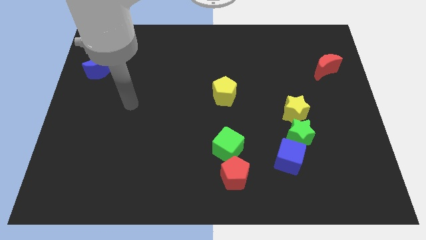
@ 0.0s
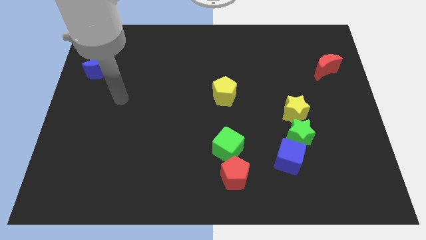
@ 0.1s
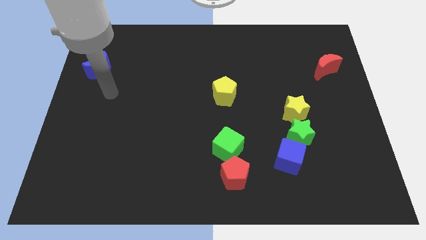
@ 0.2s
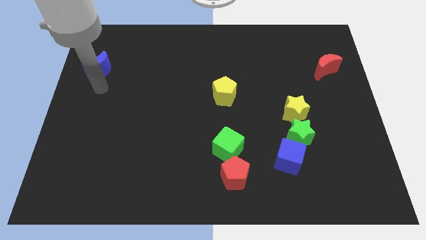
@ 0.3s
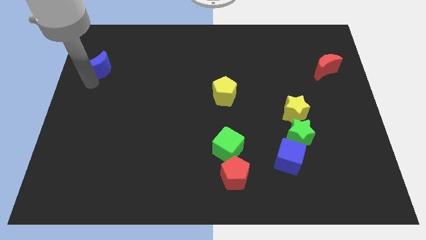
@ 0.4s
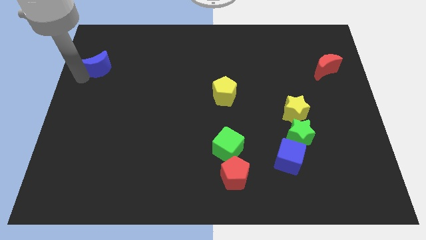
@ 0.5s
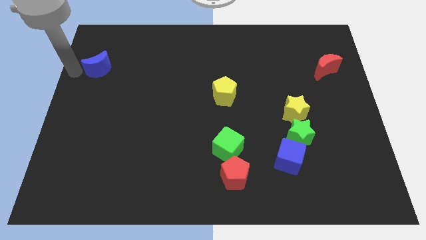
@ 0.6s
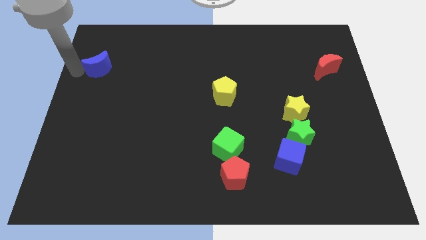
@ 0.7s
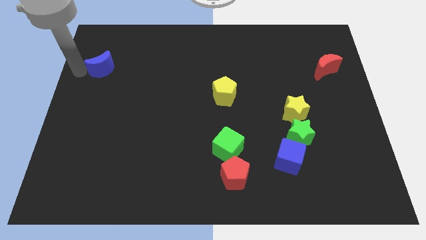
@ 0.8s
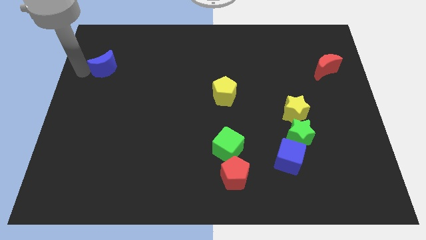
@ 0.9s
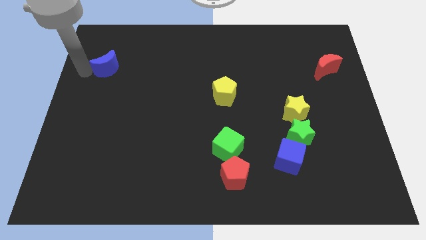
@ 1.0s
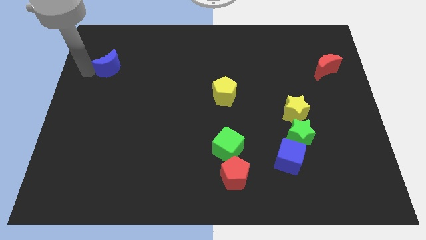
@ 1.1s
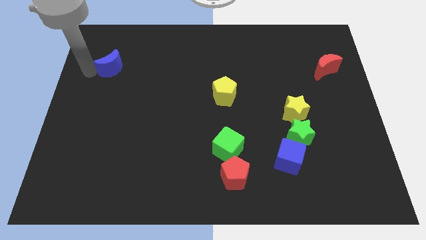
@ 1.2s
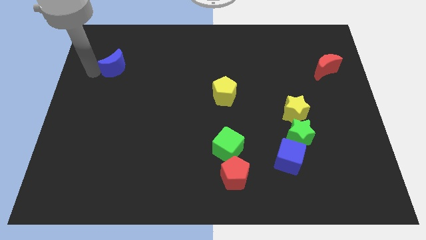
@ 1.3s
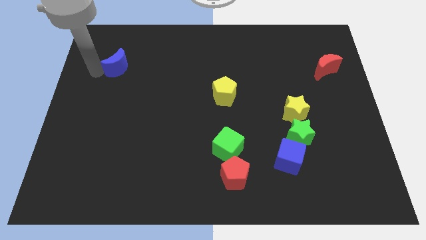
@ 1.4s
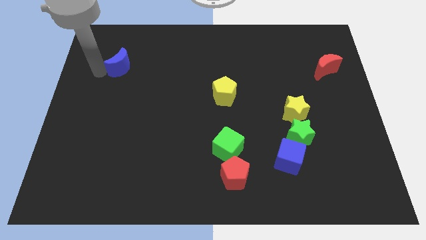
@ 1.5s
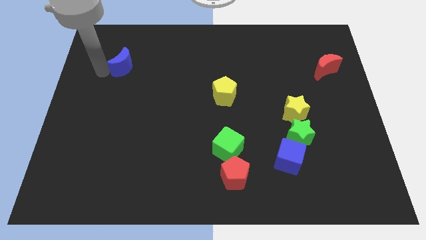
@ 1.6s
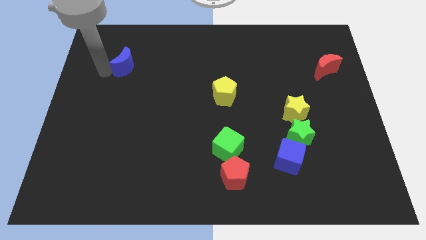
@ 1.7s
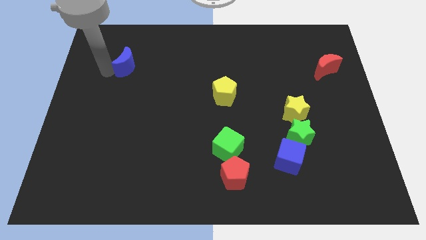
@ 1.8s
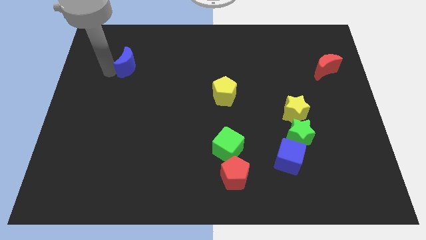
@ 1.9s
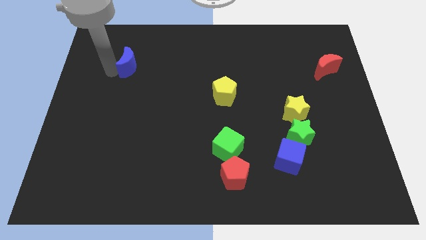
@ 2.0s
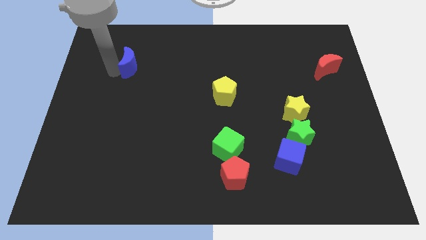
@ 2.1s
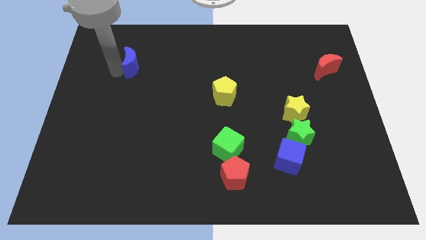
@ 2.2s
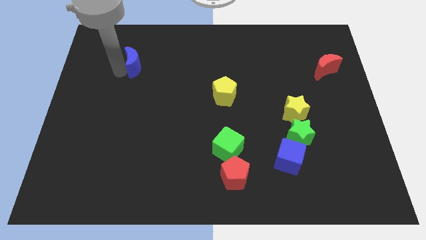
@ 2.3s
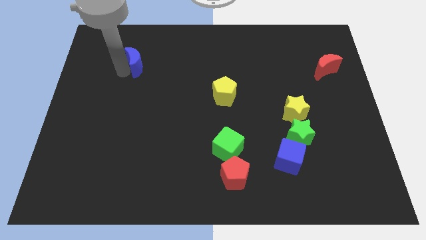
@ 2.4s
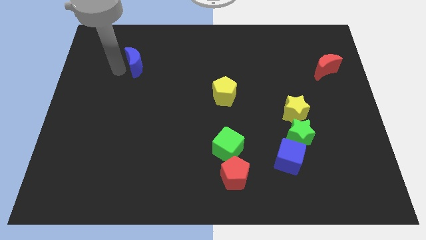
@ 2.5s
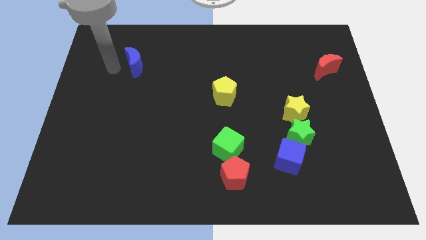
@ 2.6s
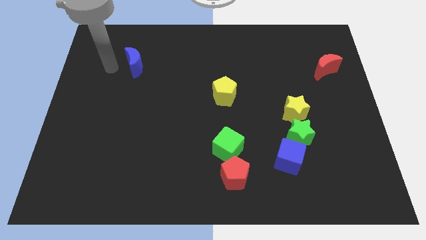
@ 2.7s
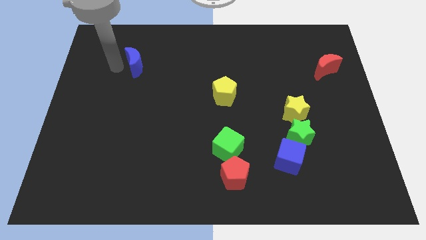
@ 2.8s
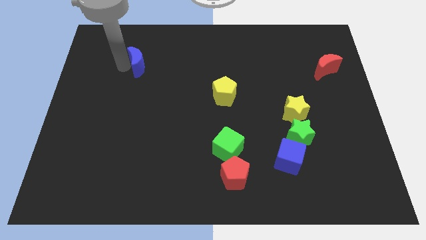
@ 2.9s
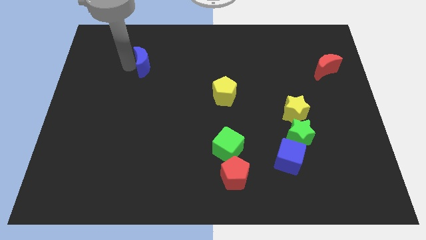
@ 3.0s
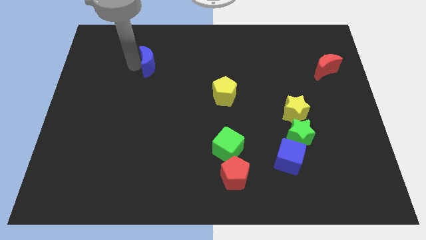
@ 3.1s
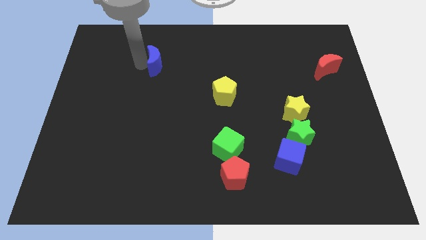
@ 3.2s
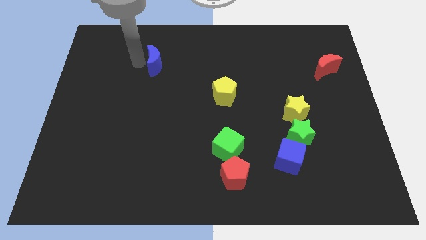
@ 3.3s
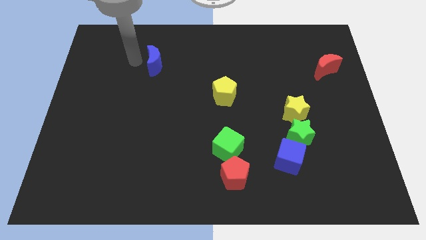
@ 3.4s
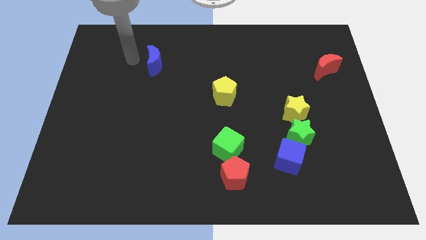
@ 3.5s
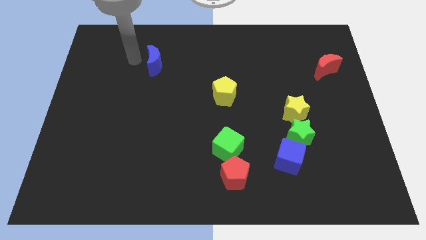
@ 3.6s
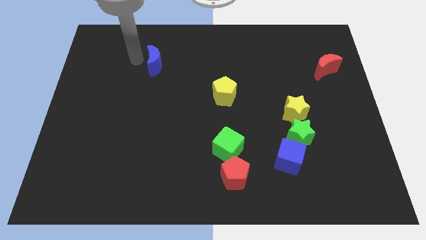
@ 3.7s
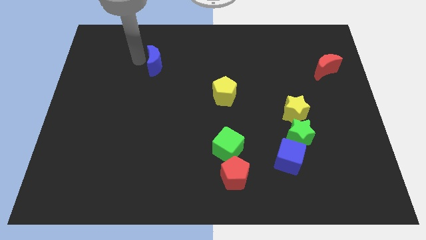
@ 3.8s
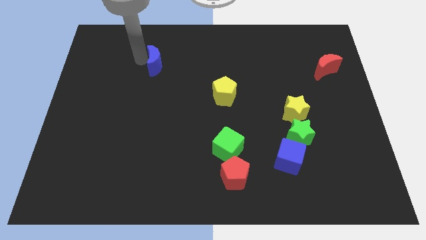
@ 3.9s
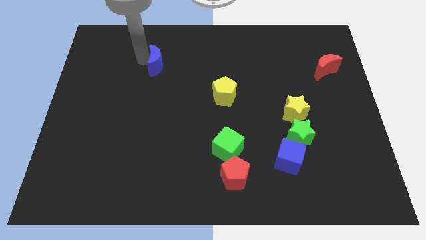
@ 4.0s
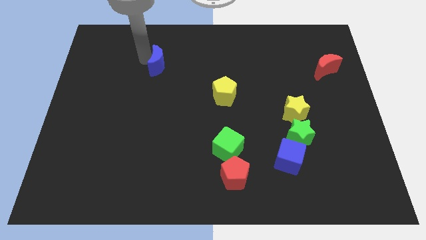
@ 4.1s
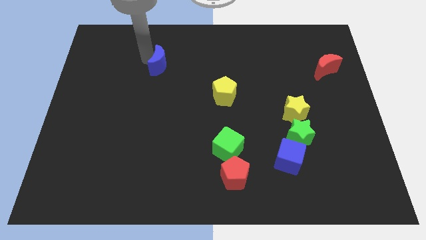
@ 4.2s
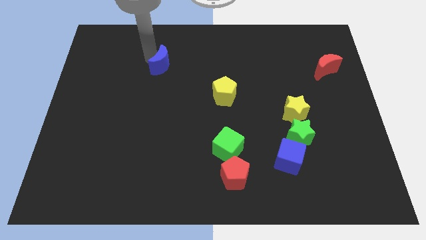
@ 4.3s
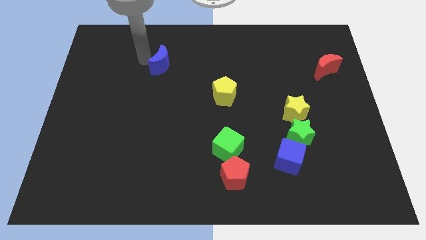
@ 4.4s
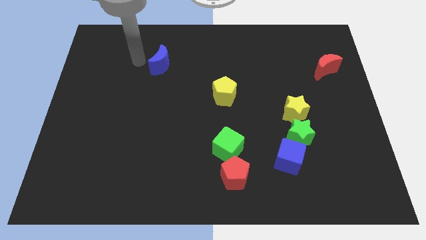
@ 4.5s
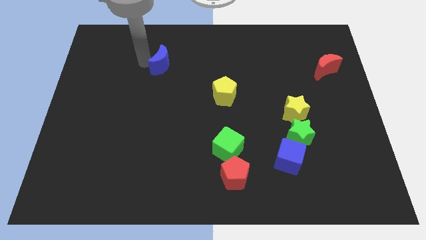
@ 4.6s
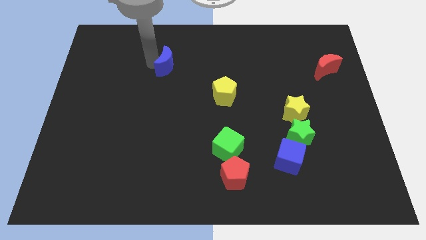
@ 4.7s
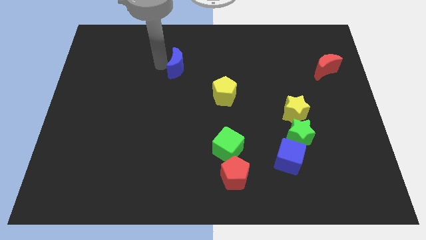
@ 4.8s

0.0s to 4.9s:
move the blue moon to the right

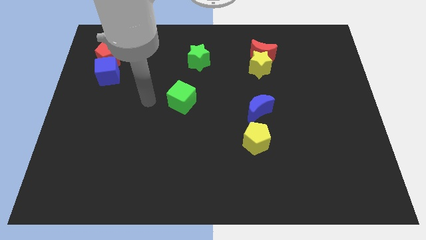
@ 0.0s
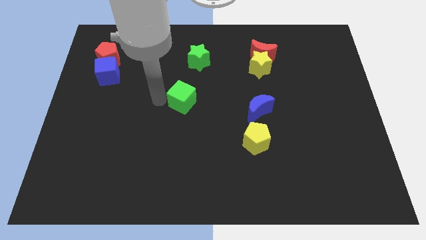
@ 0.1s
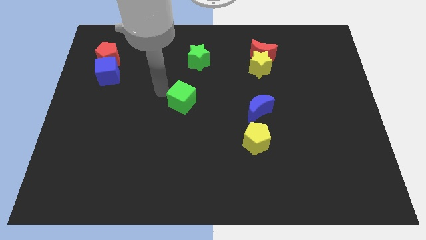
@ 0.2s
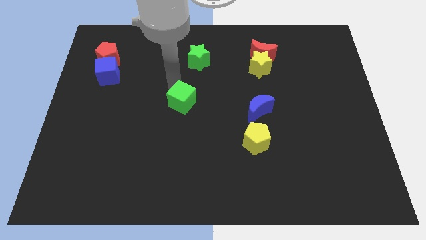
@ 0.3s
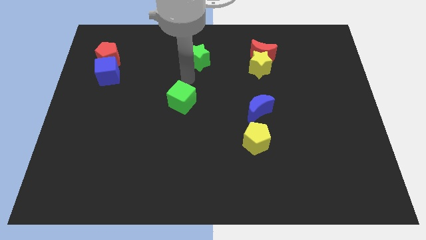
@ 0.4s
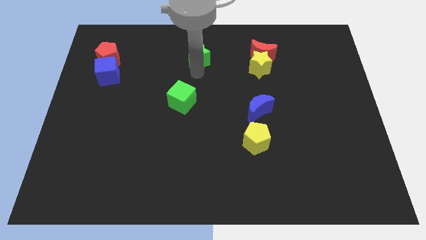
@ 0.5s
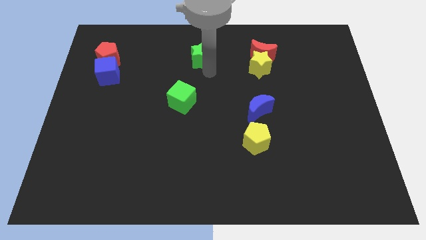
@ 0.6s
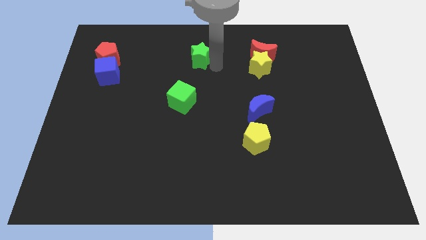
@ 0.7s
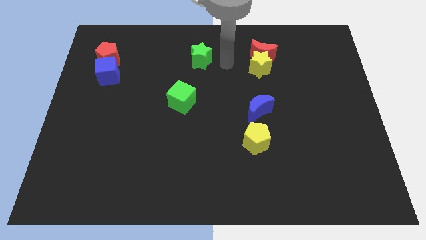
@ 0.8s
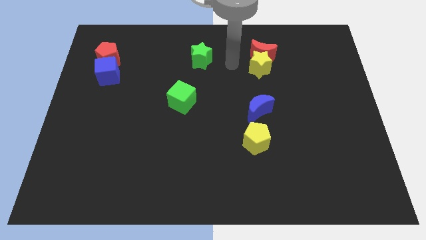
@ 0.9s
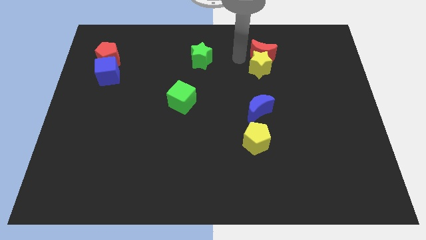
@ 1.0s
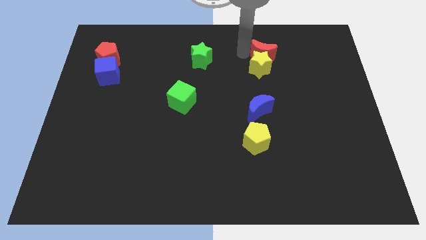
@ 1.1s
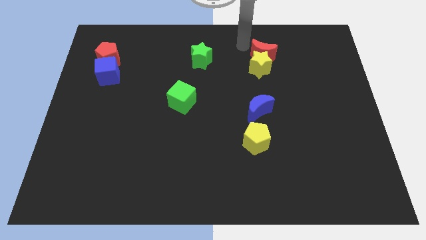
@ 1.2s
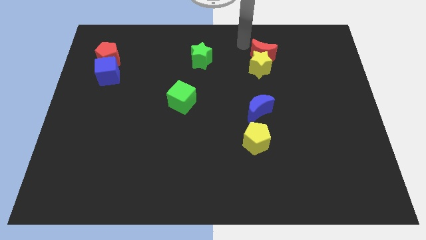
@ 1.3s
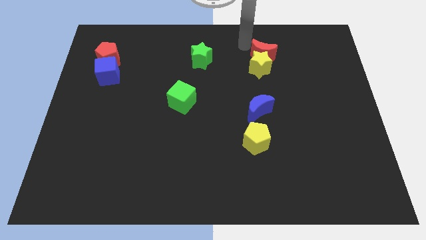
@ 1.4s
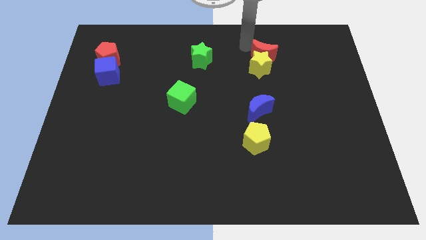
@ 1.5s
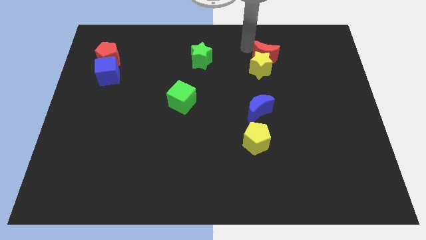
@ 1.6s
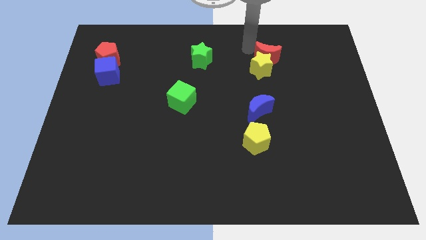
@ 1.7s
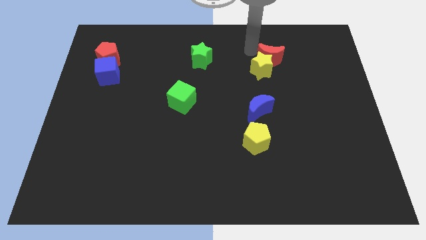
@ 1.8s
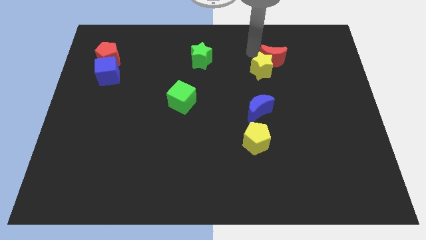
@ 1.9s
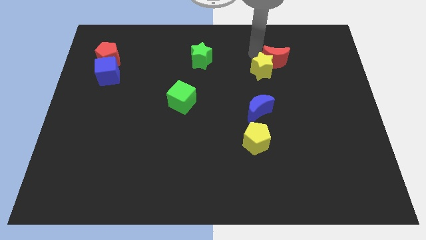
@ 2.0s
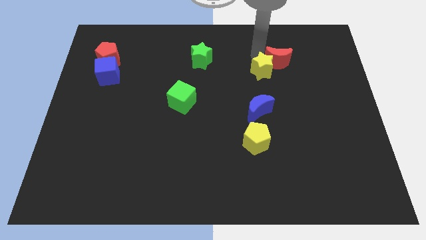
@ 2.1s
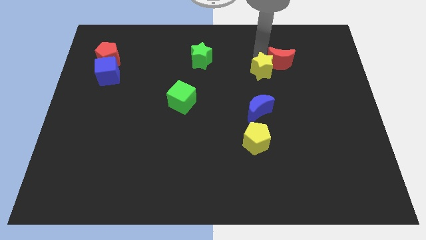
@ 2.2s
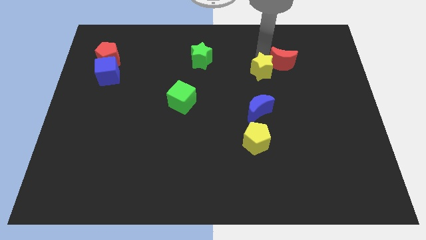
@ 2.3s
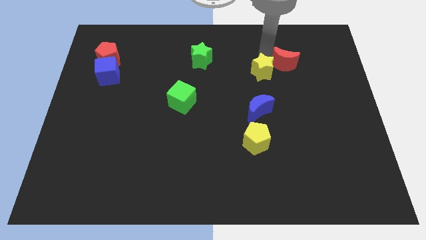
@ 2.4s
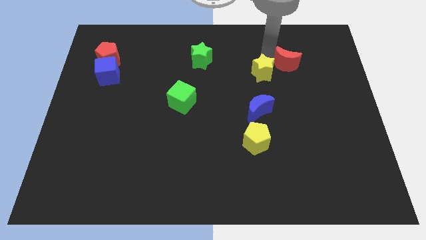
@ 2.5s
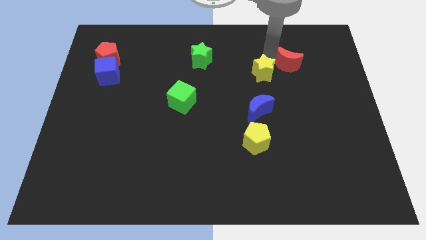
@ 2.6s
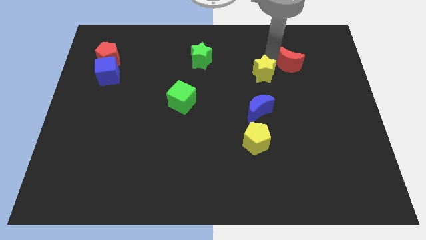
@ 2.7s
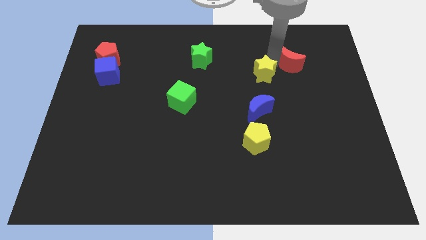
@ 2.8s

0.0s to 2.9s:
move the red moon slightly down and to the right diagonally

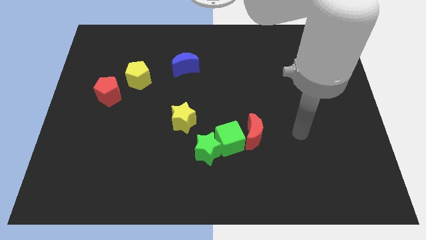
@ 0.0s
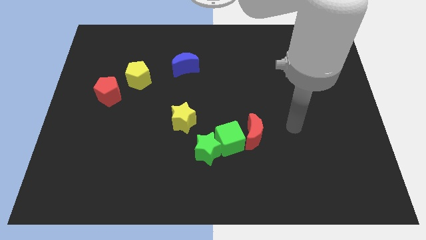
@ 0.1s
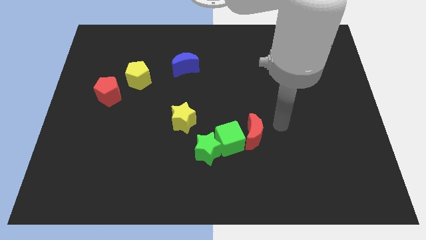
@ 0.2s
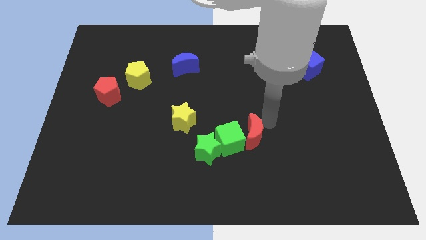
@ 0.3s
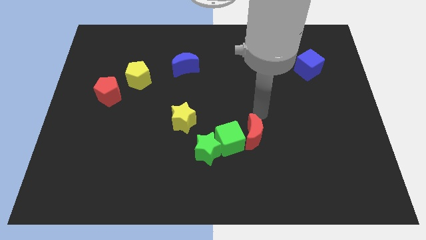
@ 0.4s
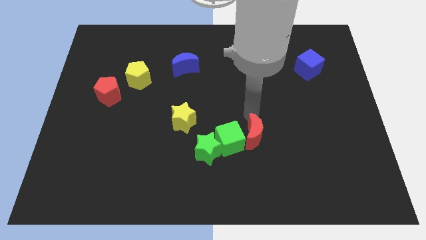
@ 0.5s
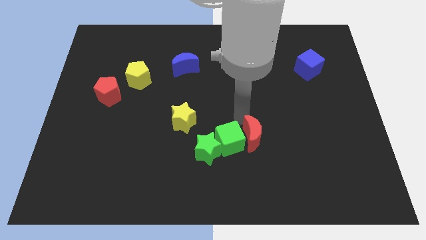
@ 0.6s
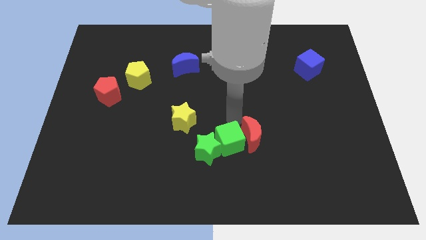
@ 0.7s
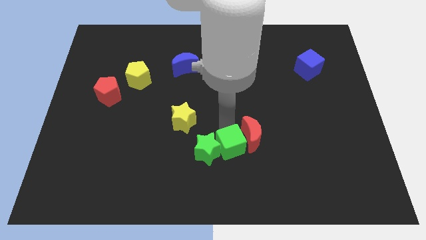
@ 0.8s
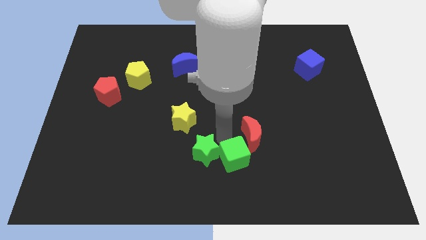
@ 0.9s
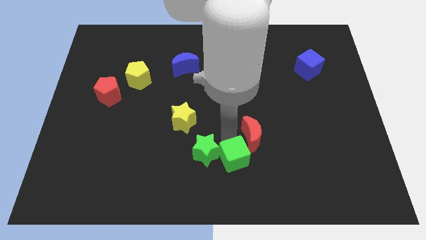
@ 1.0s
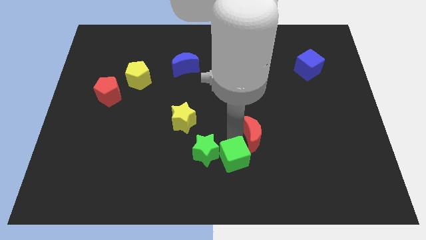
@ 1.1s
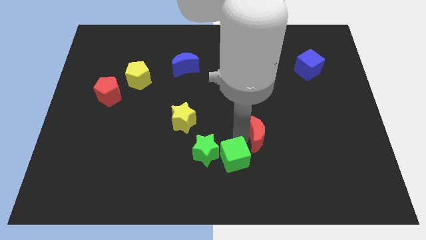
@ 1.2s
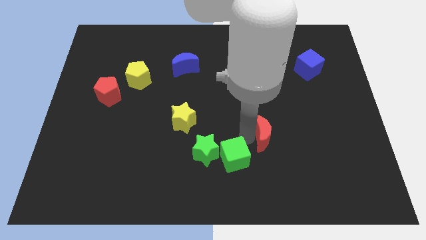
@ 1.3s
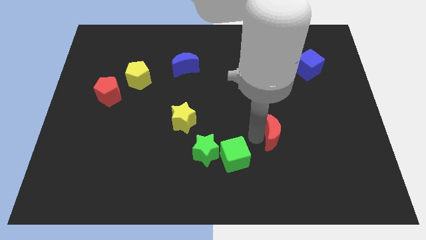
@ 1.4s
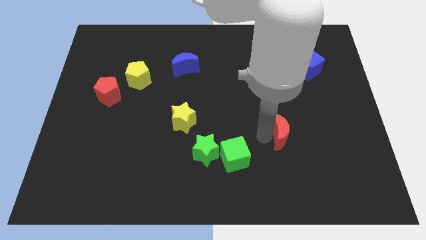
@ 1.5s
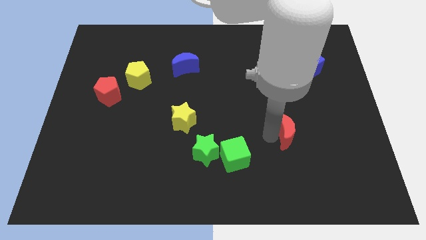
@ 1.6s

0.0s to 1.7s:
push the red moon to the right a little bit
